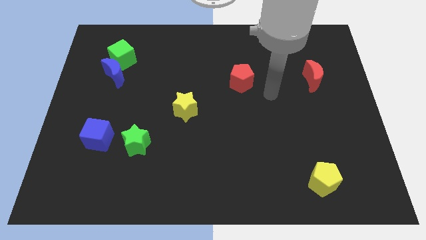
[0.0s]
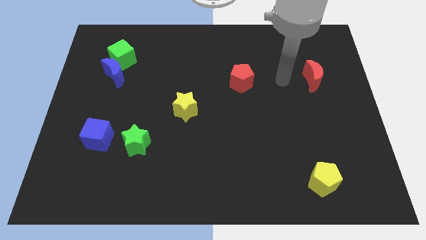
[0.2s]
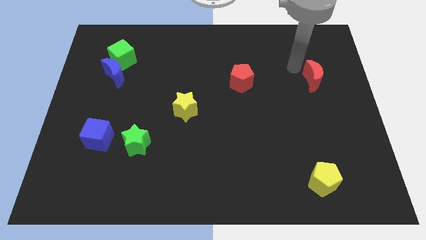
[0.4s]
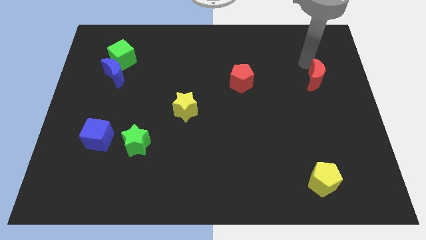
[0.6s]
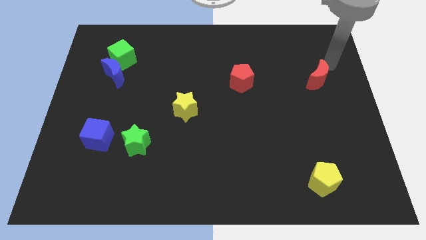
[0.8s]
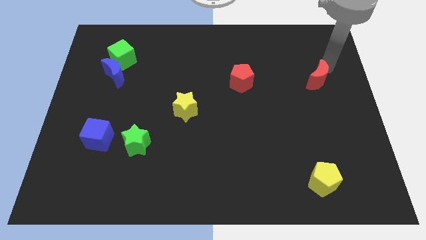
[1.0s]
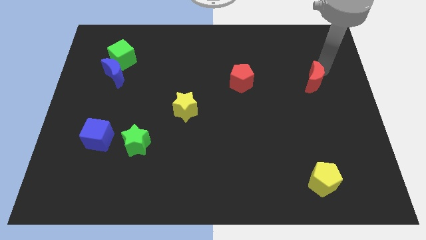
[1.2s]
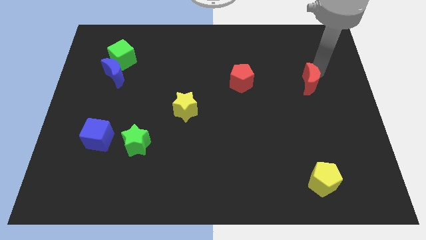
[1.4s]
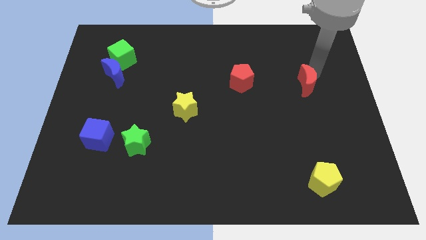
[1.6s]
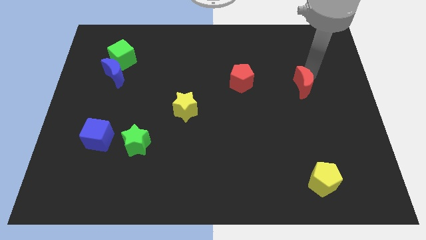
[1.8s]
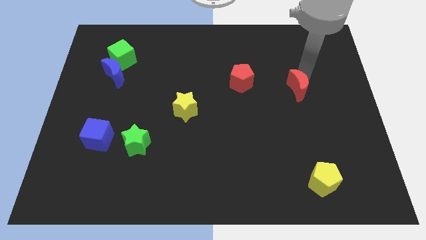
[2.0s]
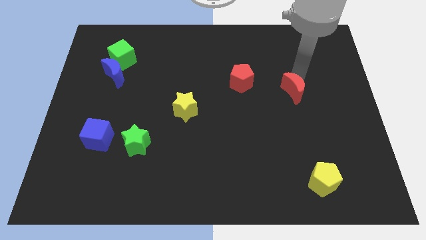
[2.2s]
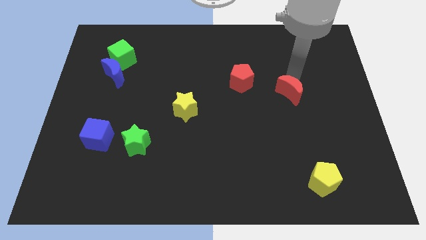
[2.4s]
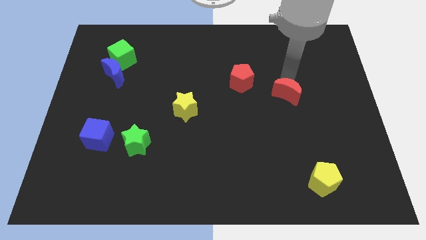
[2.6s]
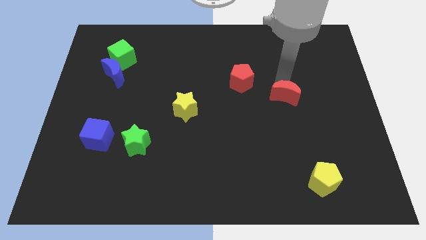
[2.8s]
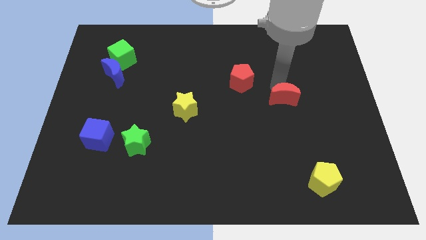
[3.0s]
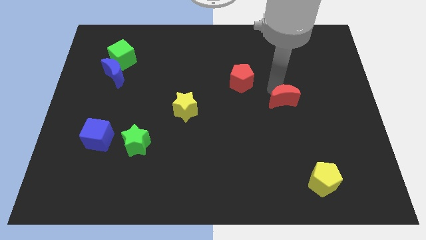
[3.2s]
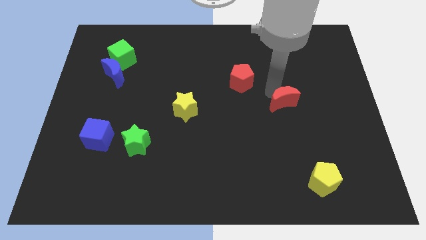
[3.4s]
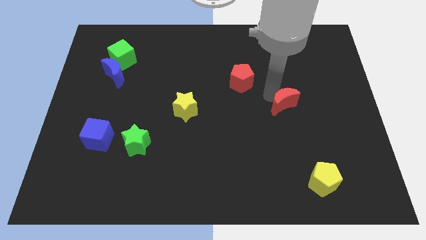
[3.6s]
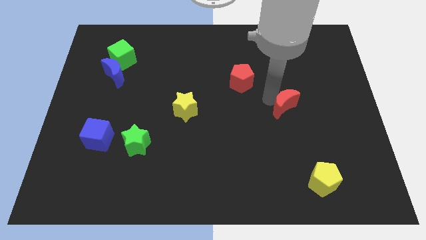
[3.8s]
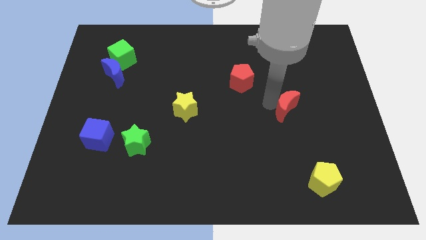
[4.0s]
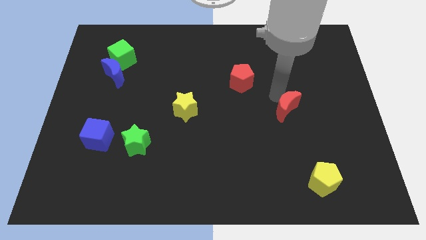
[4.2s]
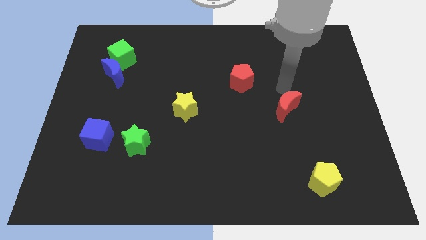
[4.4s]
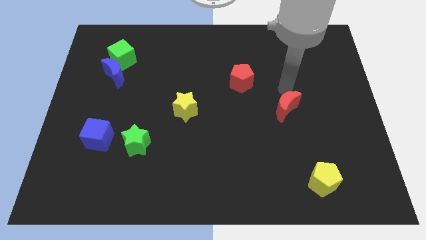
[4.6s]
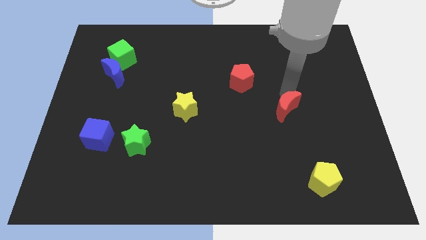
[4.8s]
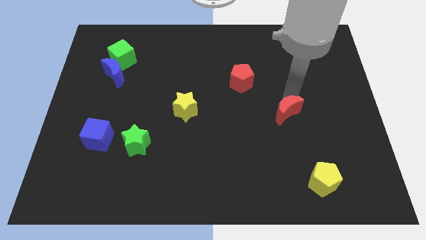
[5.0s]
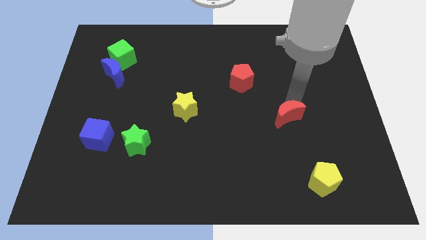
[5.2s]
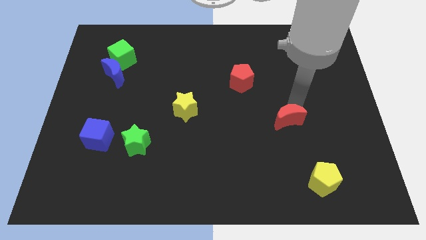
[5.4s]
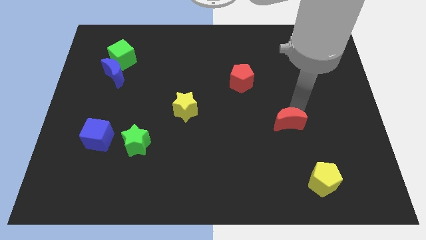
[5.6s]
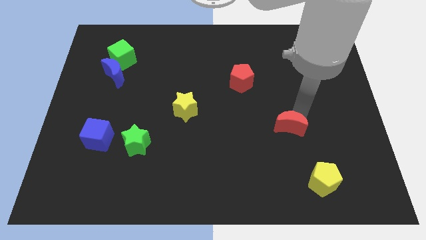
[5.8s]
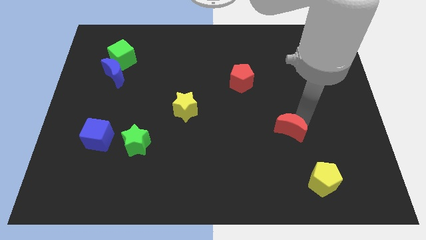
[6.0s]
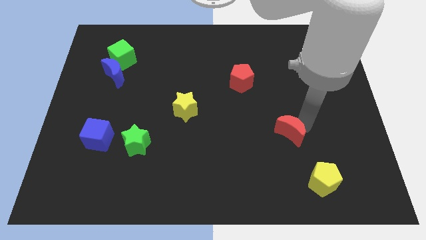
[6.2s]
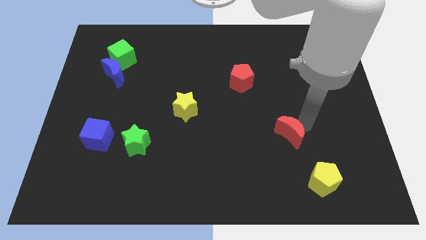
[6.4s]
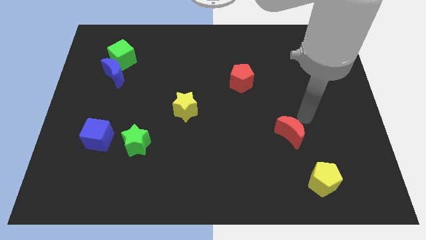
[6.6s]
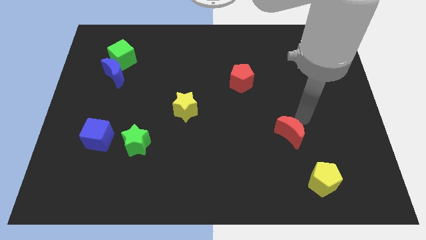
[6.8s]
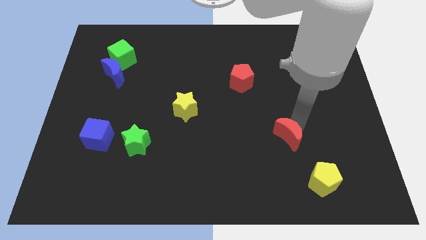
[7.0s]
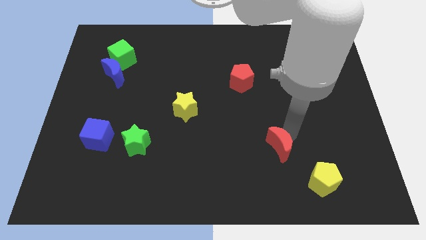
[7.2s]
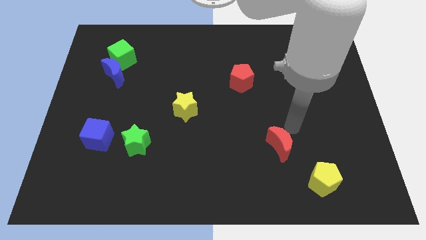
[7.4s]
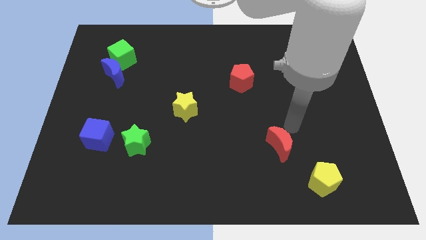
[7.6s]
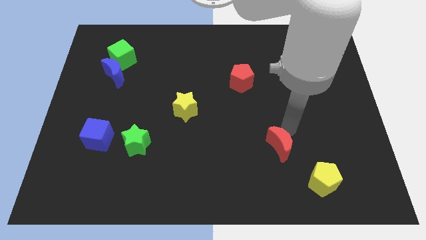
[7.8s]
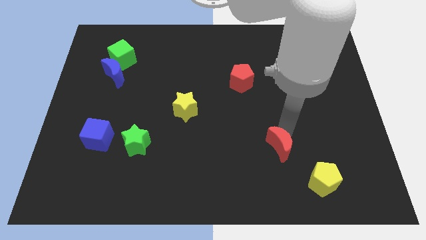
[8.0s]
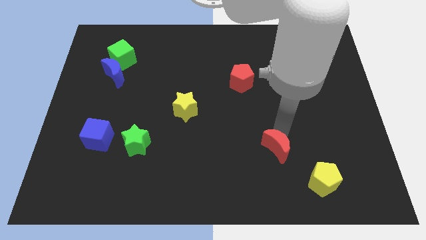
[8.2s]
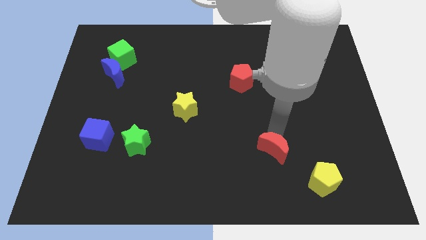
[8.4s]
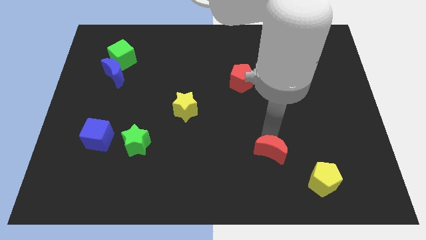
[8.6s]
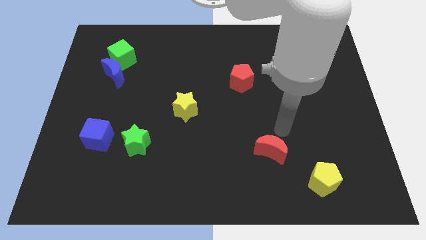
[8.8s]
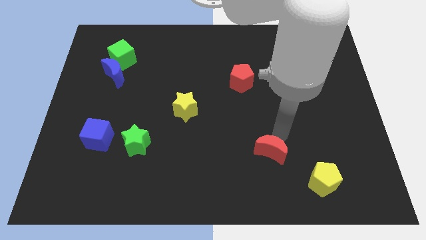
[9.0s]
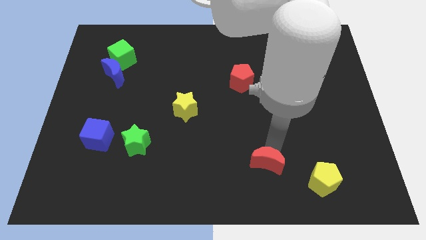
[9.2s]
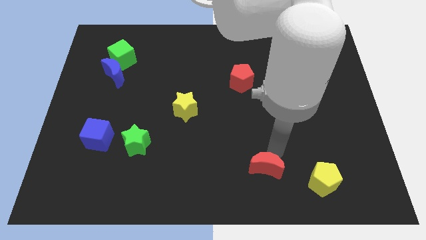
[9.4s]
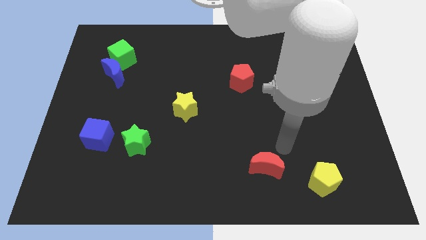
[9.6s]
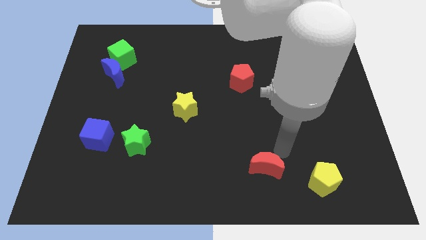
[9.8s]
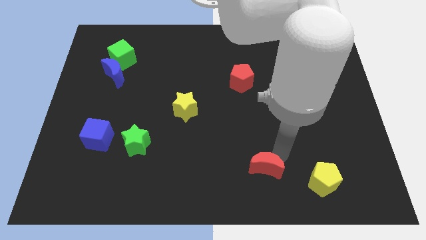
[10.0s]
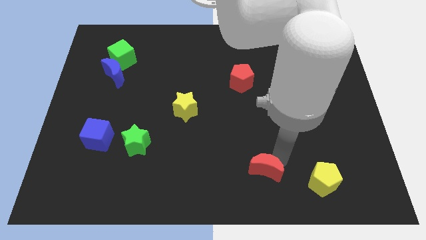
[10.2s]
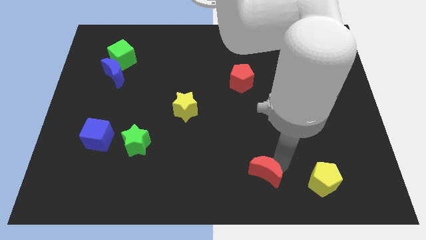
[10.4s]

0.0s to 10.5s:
slide the red moon to the bottom

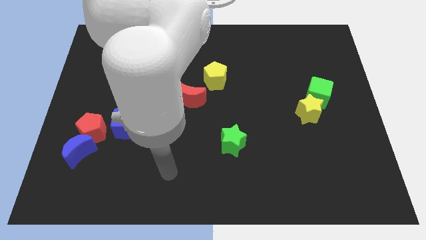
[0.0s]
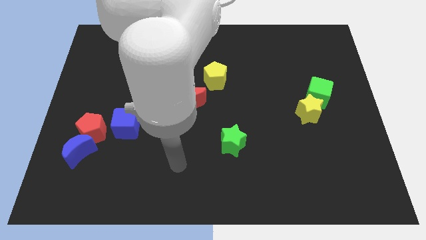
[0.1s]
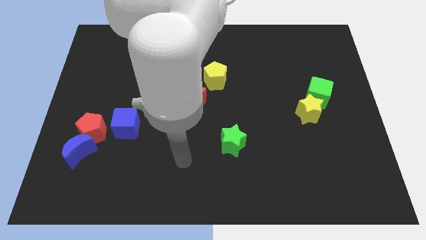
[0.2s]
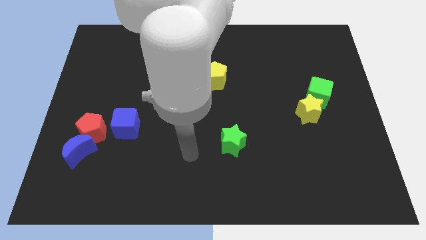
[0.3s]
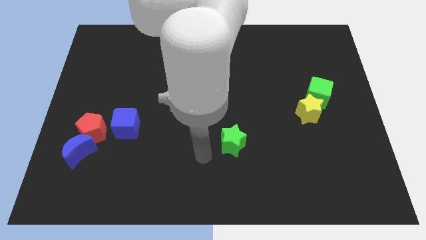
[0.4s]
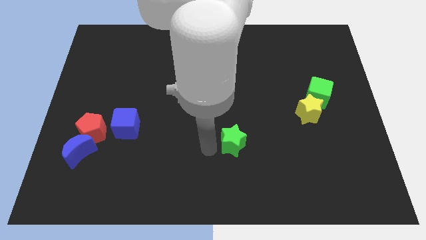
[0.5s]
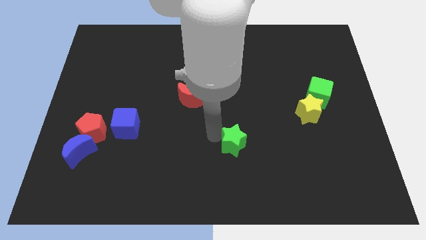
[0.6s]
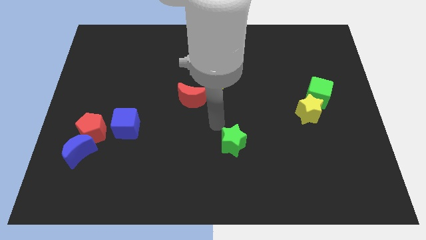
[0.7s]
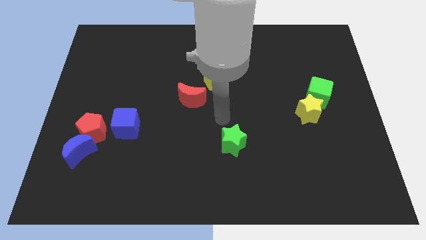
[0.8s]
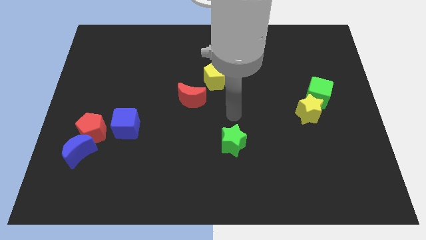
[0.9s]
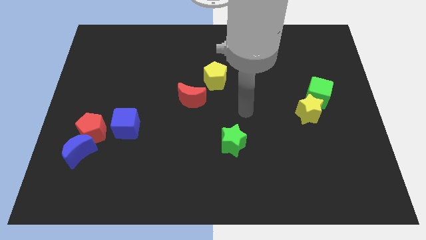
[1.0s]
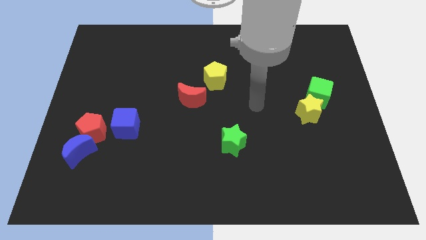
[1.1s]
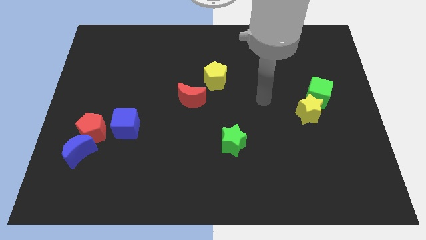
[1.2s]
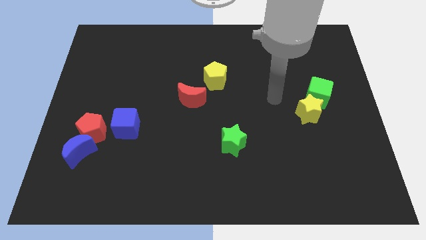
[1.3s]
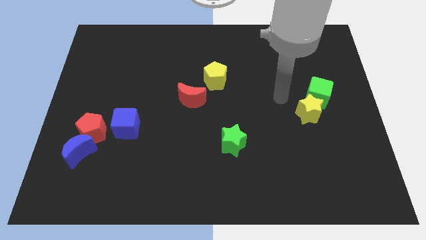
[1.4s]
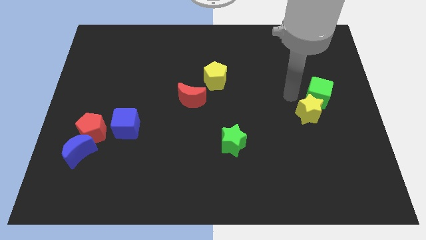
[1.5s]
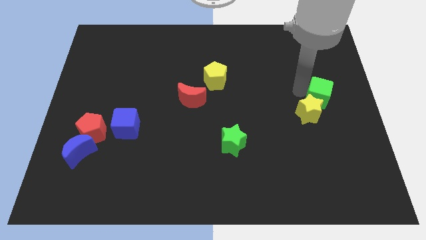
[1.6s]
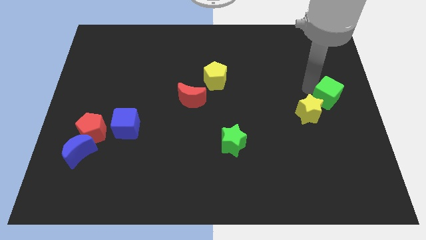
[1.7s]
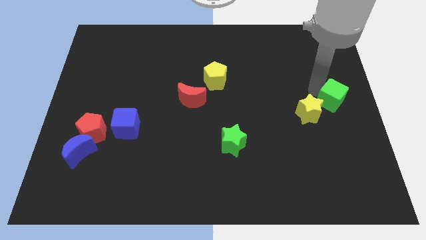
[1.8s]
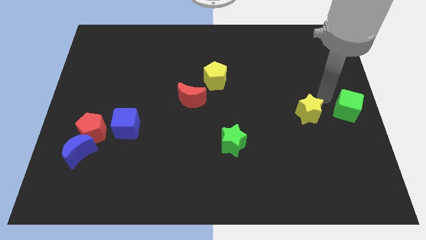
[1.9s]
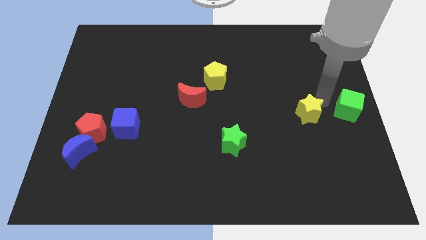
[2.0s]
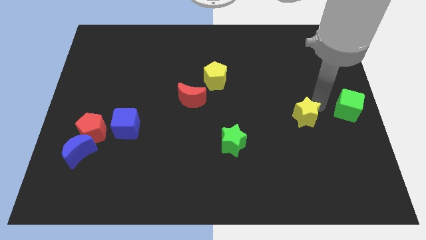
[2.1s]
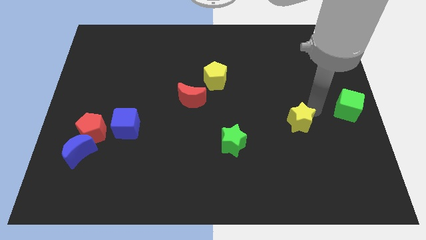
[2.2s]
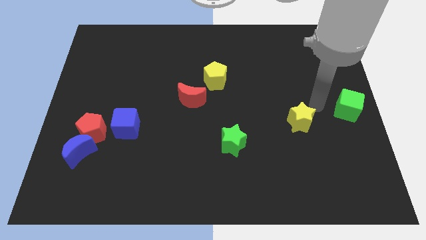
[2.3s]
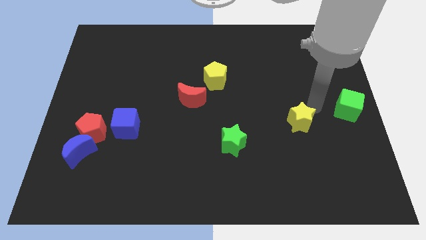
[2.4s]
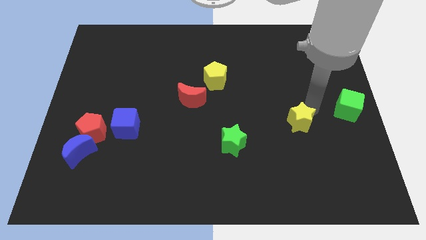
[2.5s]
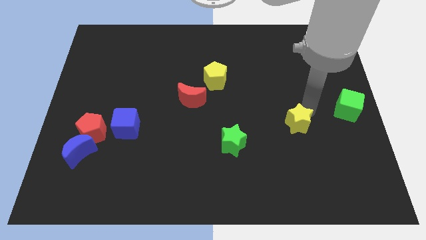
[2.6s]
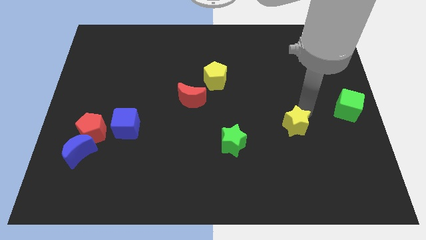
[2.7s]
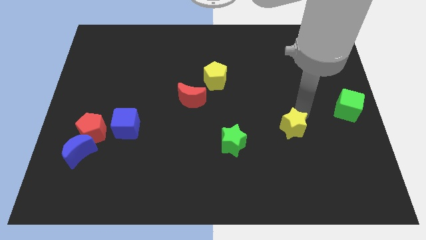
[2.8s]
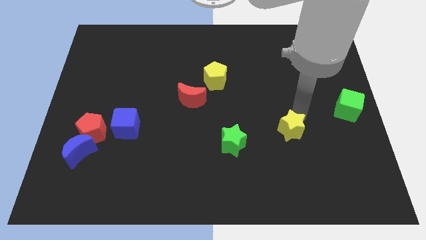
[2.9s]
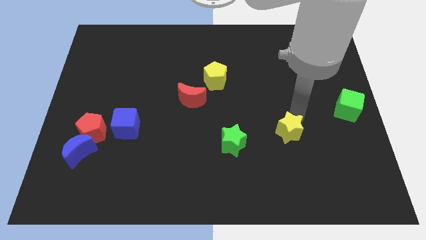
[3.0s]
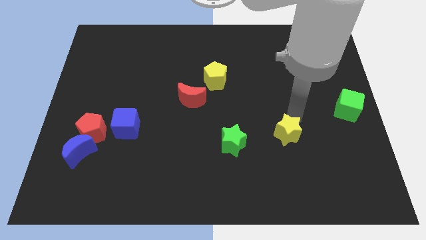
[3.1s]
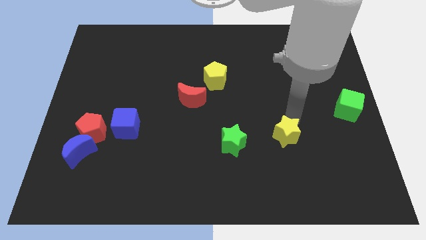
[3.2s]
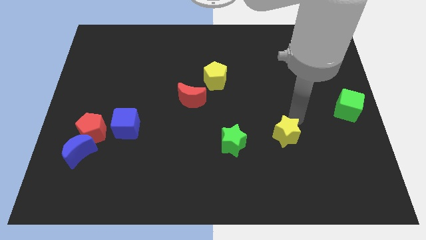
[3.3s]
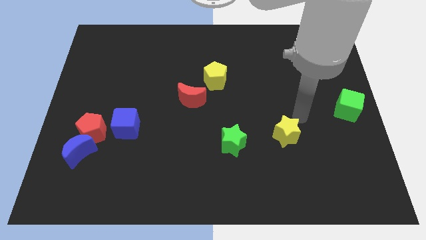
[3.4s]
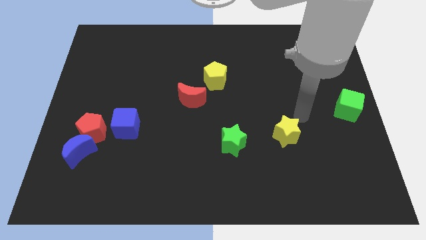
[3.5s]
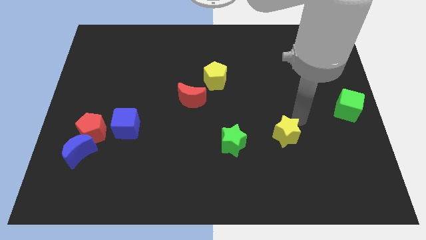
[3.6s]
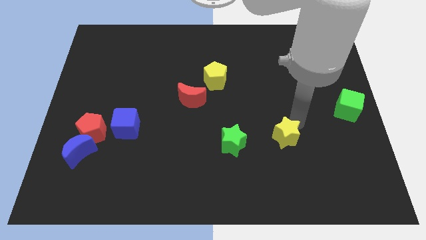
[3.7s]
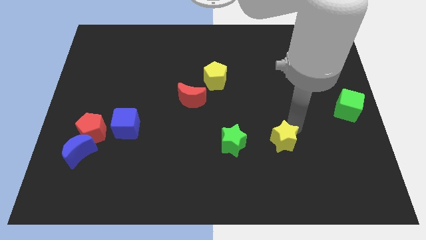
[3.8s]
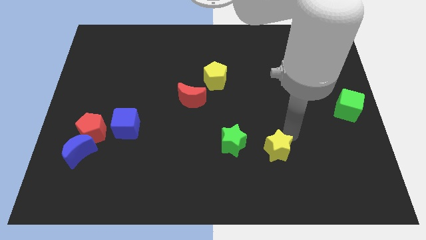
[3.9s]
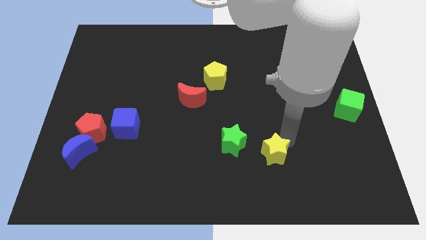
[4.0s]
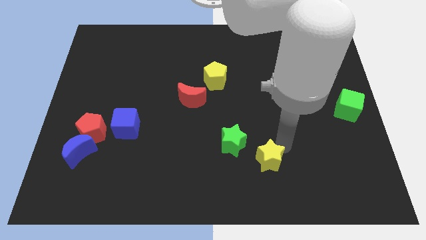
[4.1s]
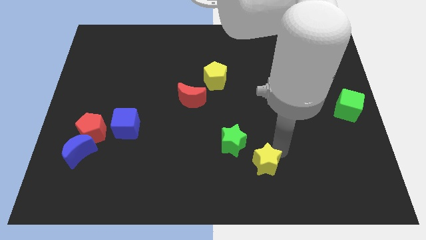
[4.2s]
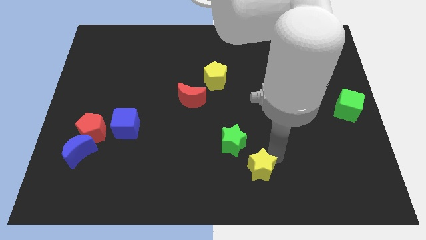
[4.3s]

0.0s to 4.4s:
put the yellow star to the bottom
